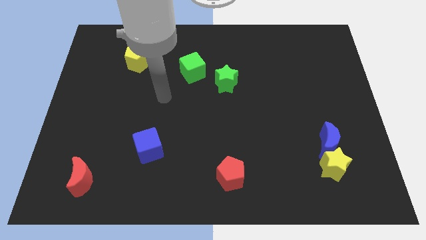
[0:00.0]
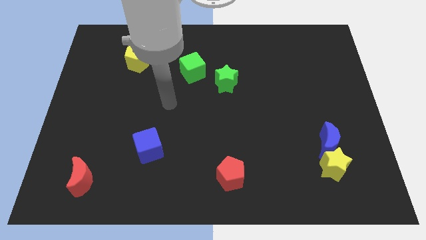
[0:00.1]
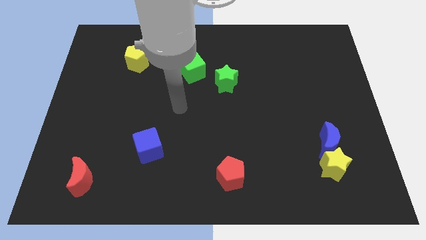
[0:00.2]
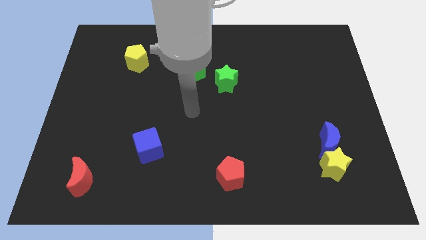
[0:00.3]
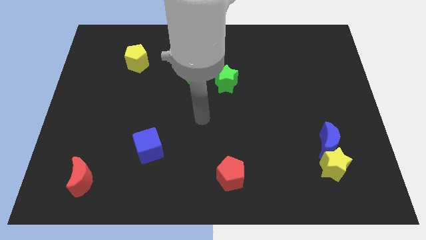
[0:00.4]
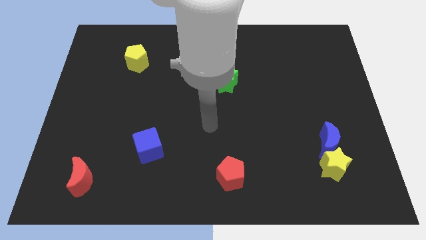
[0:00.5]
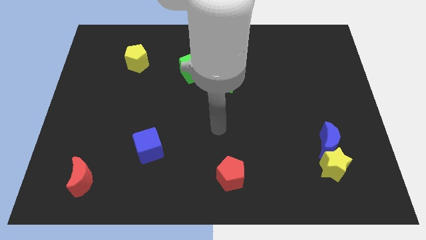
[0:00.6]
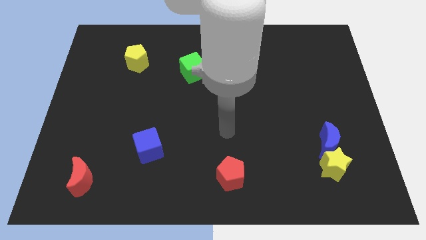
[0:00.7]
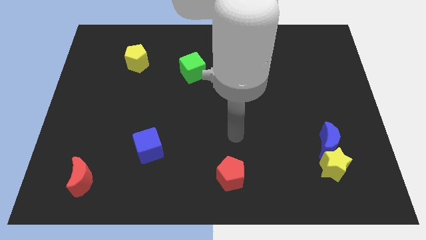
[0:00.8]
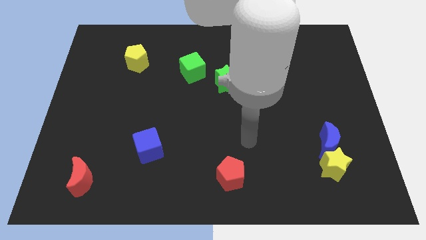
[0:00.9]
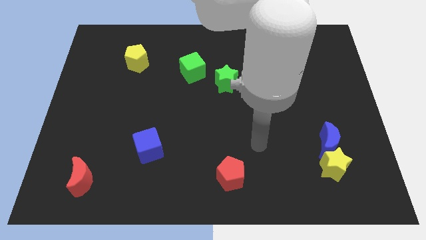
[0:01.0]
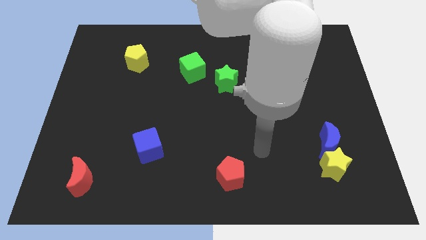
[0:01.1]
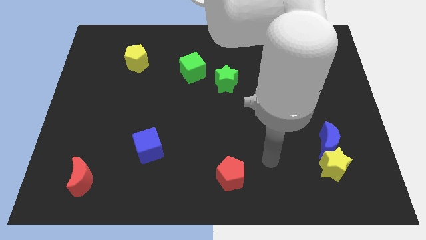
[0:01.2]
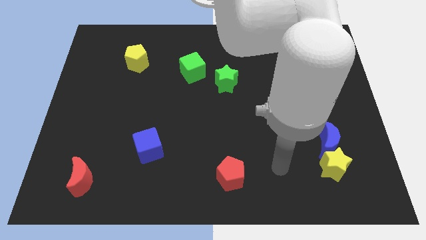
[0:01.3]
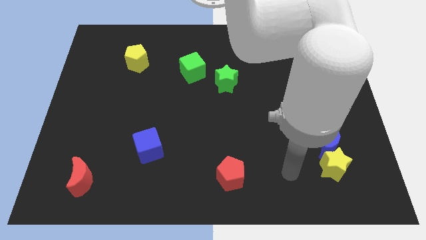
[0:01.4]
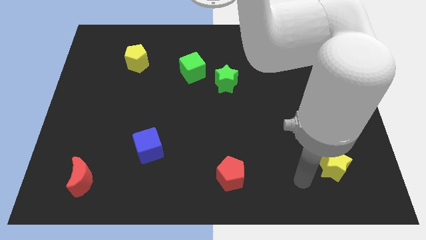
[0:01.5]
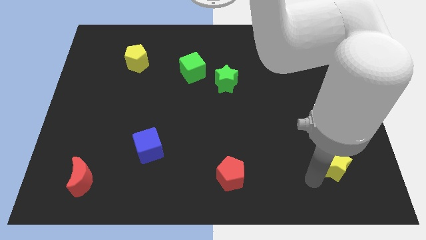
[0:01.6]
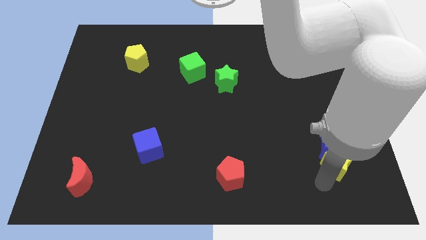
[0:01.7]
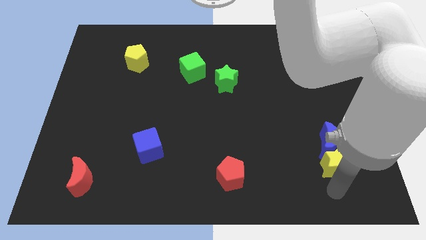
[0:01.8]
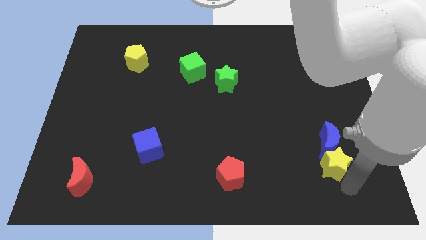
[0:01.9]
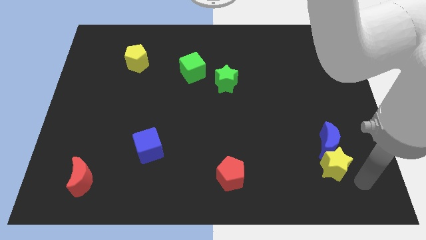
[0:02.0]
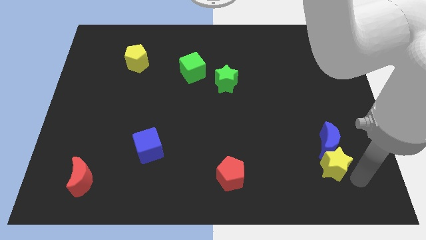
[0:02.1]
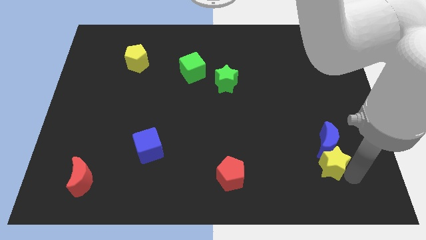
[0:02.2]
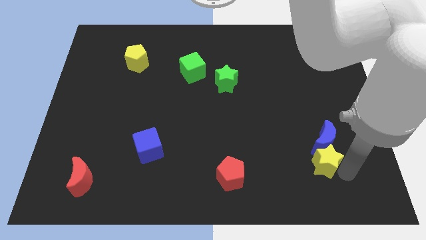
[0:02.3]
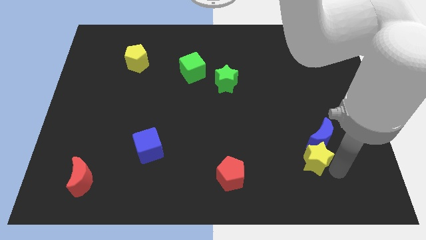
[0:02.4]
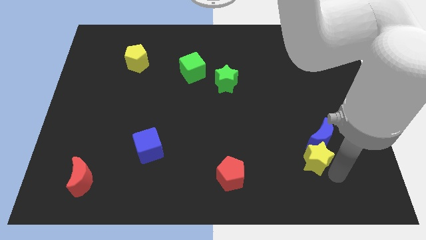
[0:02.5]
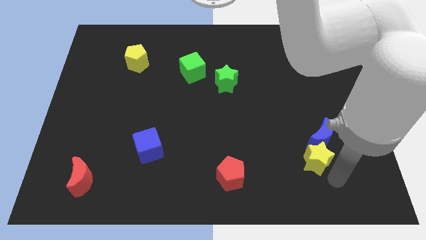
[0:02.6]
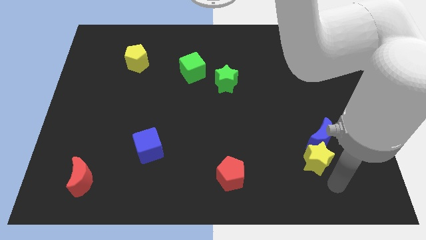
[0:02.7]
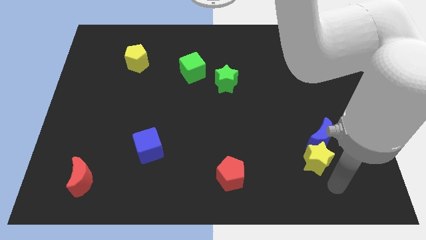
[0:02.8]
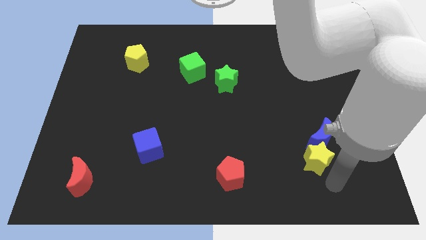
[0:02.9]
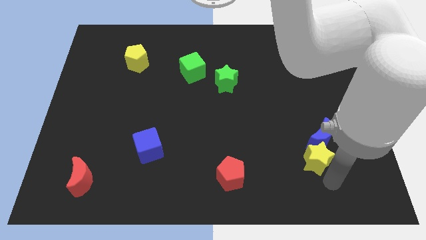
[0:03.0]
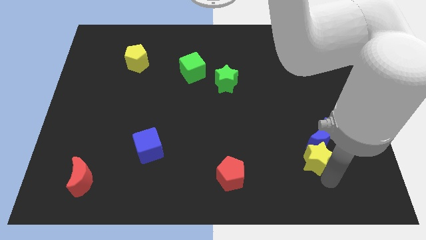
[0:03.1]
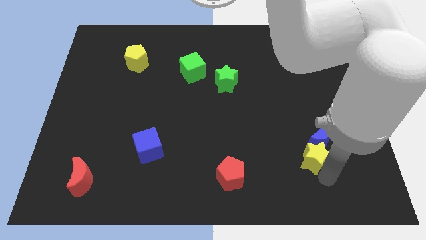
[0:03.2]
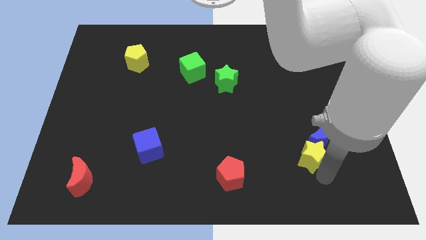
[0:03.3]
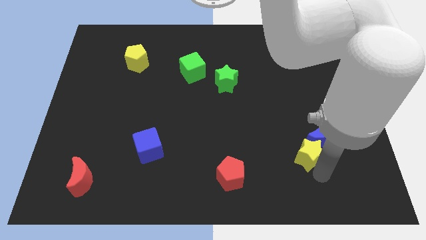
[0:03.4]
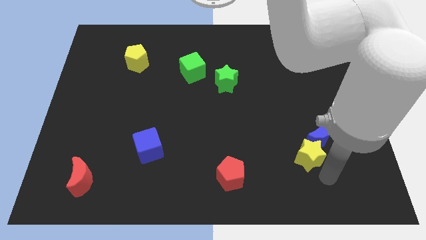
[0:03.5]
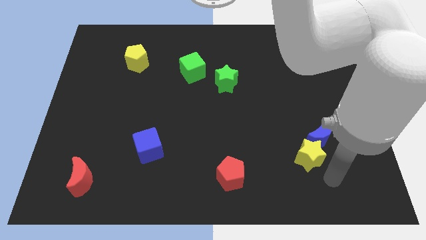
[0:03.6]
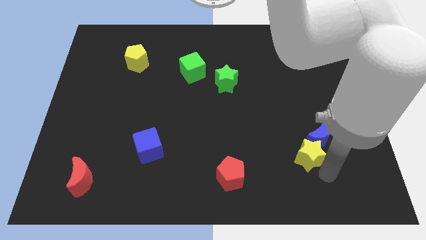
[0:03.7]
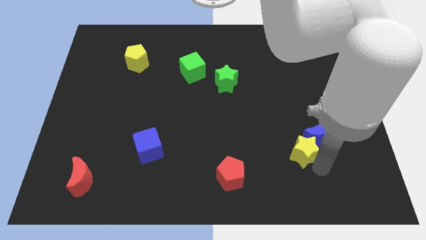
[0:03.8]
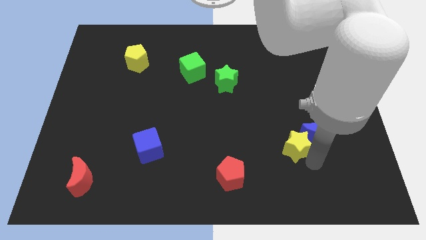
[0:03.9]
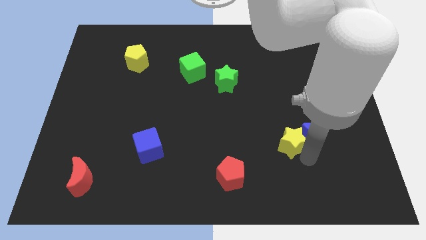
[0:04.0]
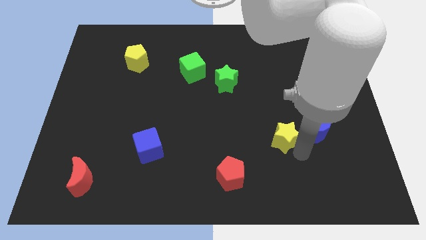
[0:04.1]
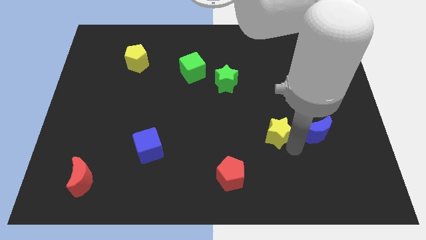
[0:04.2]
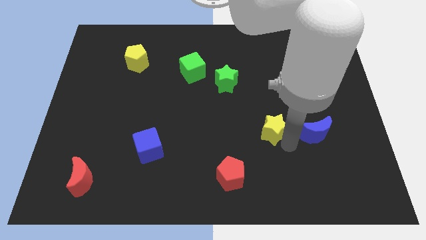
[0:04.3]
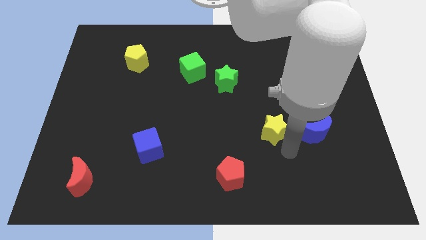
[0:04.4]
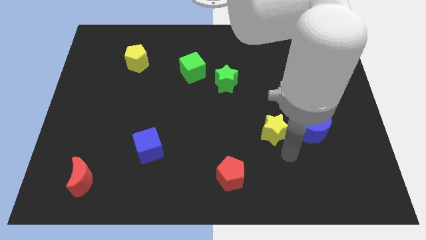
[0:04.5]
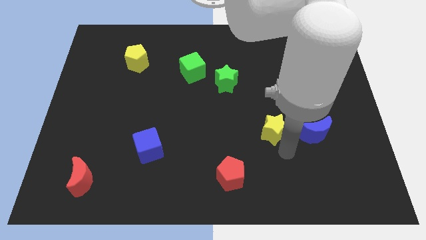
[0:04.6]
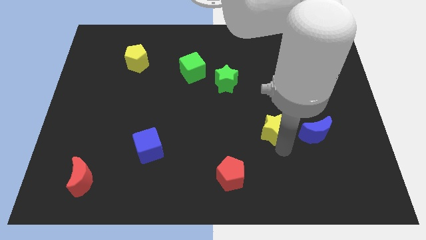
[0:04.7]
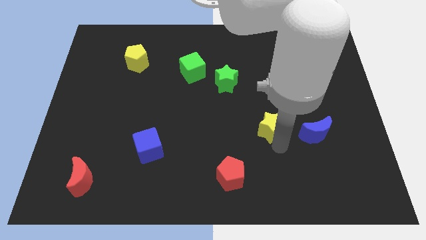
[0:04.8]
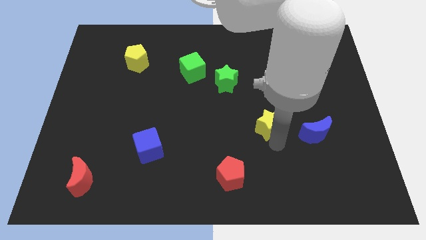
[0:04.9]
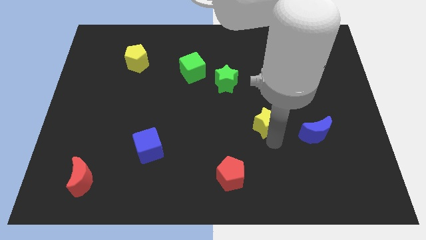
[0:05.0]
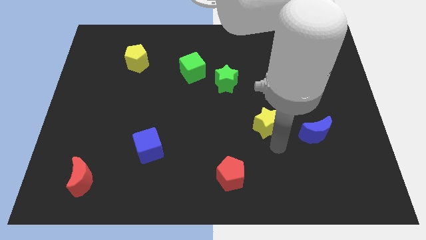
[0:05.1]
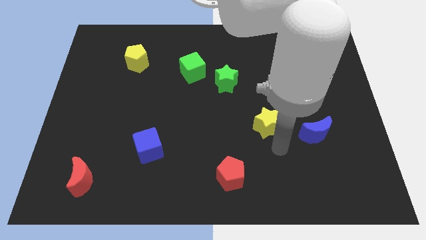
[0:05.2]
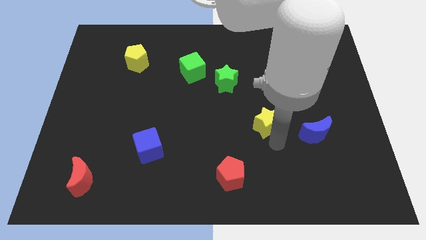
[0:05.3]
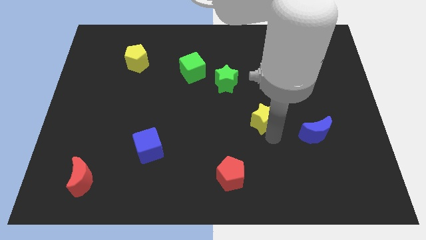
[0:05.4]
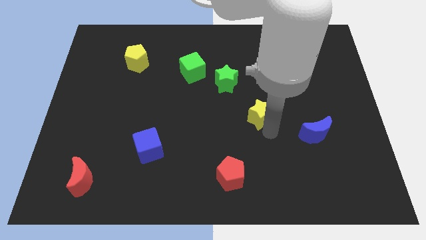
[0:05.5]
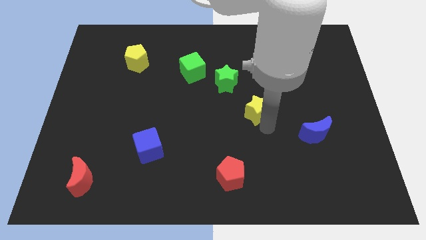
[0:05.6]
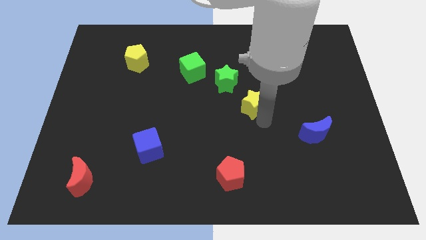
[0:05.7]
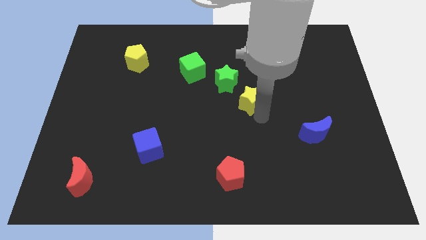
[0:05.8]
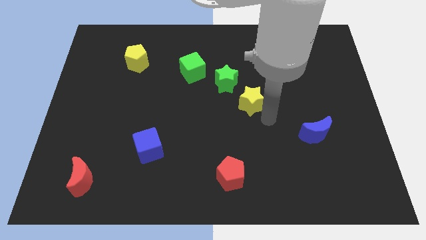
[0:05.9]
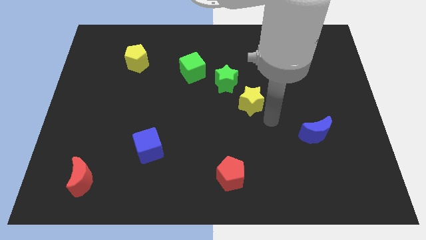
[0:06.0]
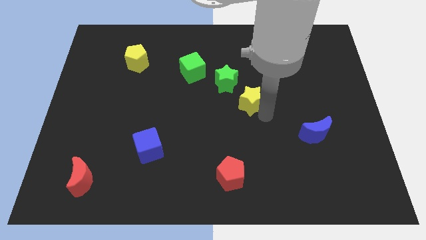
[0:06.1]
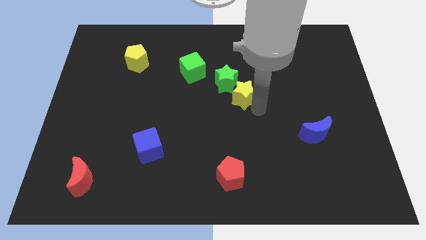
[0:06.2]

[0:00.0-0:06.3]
slide the yellow star close to the green star
